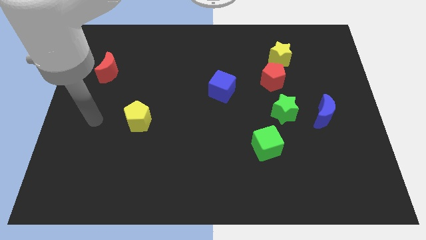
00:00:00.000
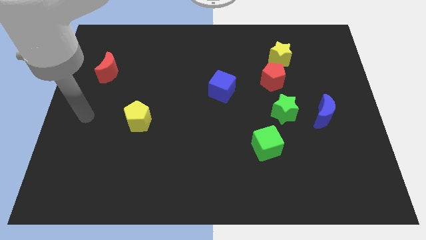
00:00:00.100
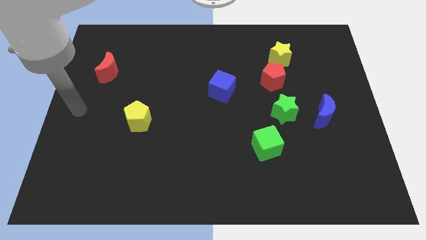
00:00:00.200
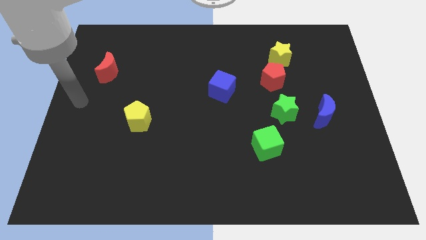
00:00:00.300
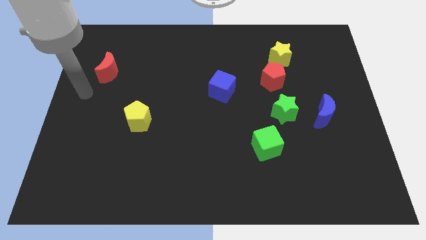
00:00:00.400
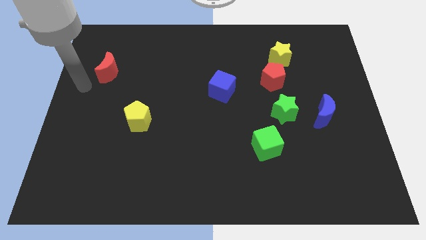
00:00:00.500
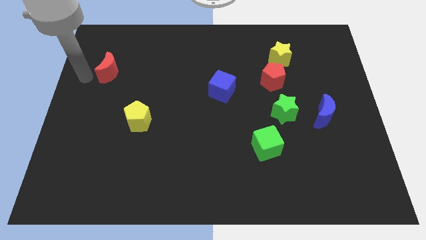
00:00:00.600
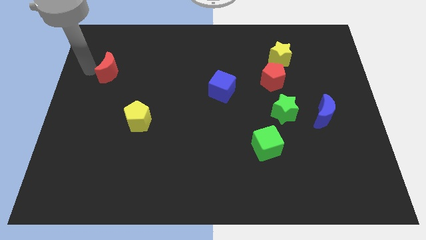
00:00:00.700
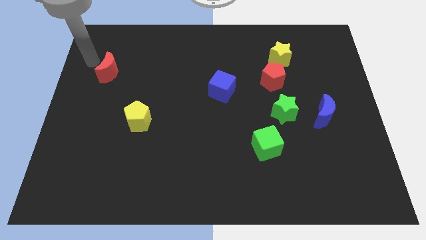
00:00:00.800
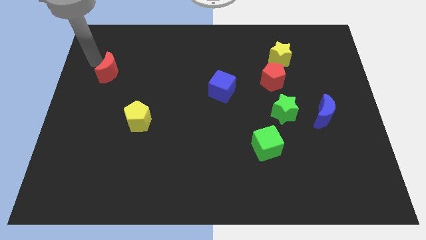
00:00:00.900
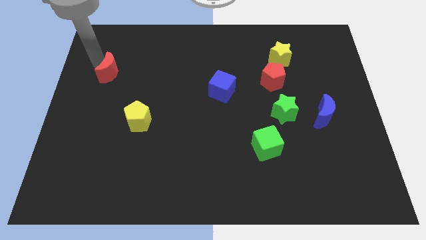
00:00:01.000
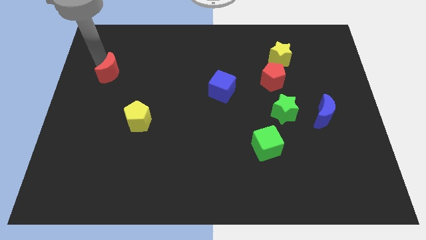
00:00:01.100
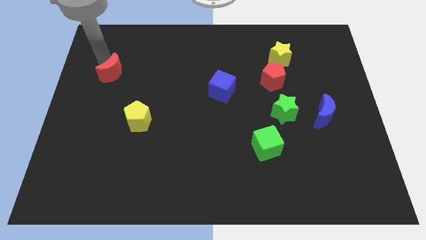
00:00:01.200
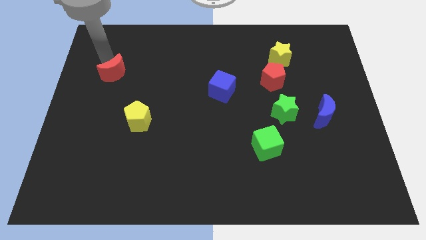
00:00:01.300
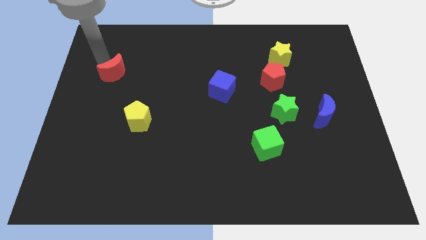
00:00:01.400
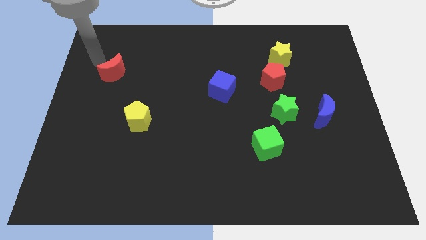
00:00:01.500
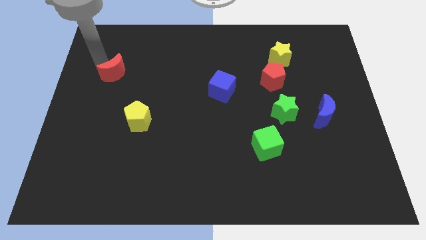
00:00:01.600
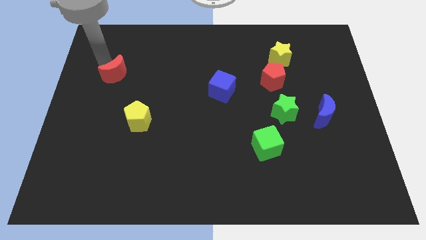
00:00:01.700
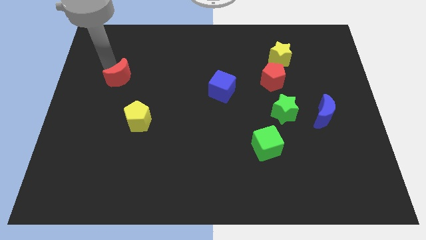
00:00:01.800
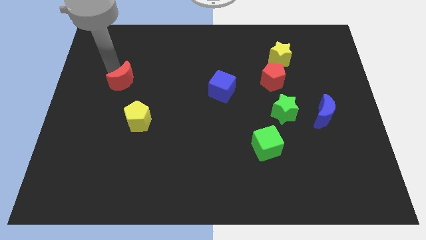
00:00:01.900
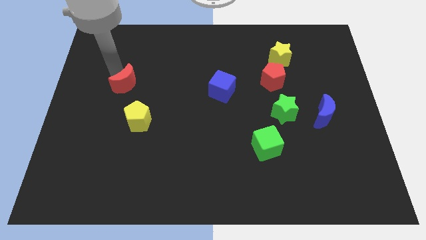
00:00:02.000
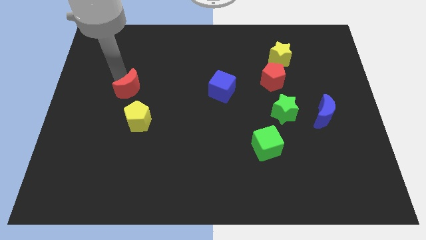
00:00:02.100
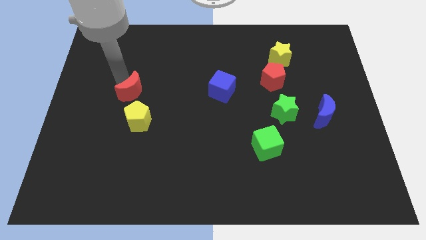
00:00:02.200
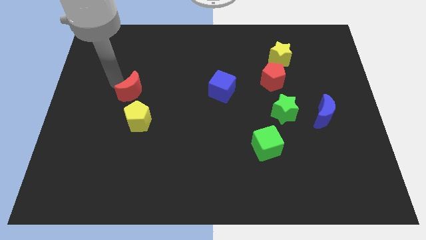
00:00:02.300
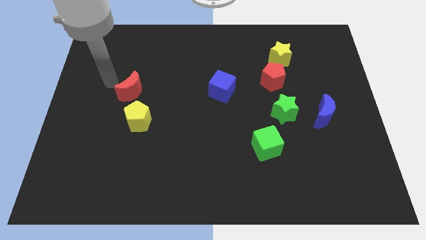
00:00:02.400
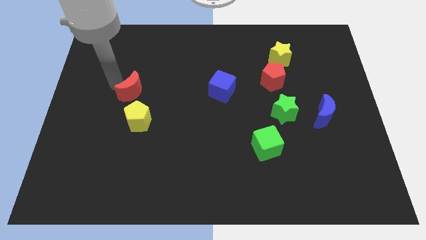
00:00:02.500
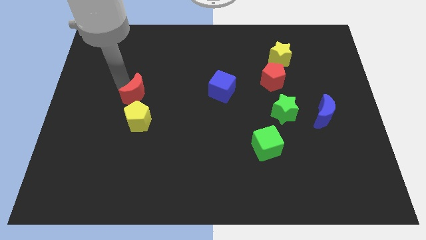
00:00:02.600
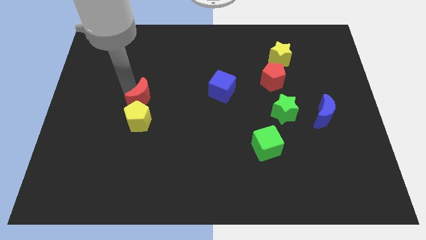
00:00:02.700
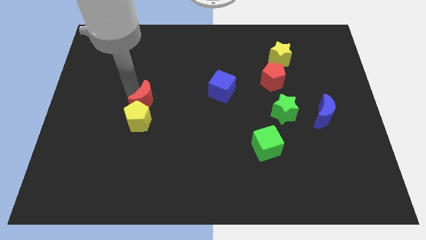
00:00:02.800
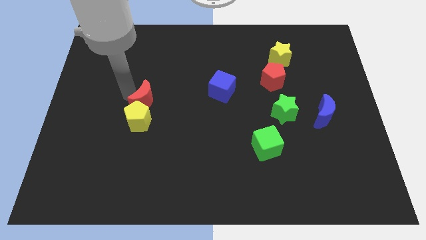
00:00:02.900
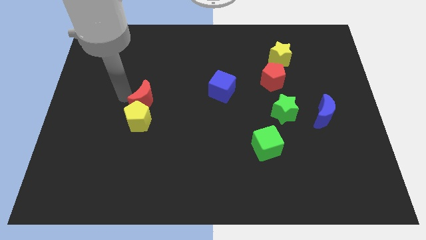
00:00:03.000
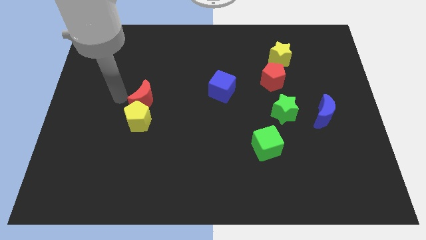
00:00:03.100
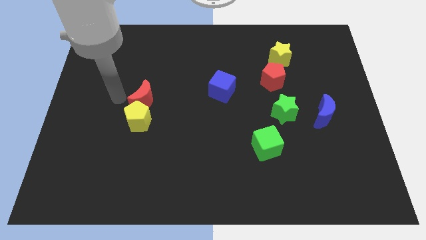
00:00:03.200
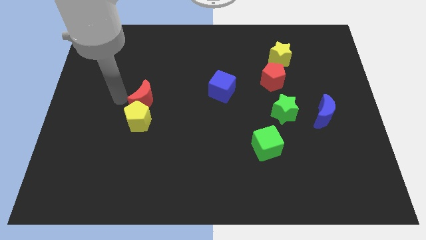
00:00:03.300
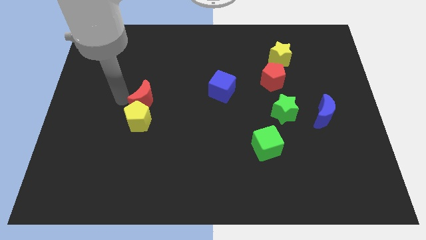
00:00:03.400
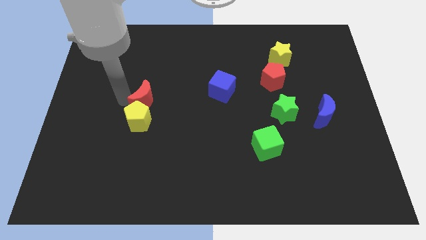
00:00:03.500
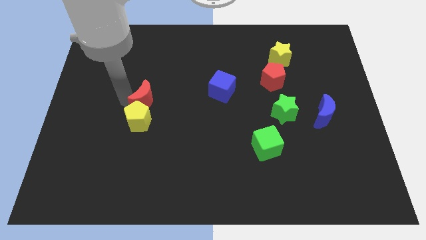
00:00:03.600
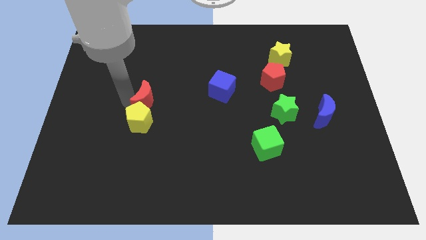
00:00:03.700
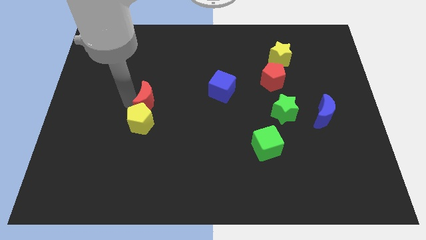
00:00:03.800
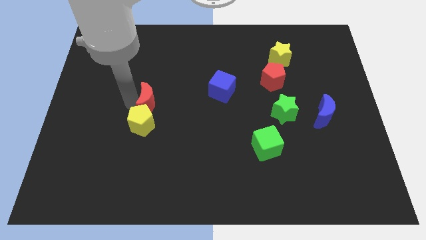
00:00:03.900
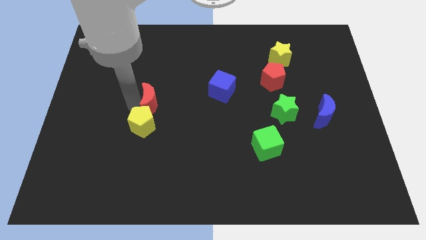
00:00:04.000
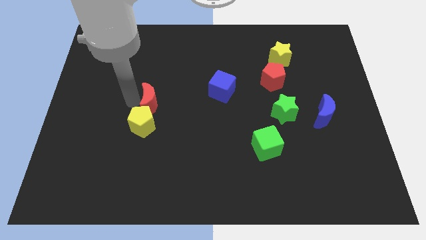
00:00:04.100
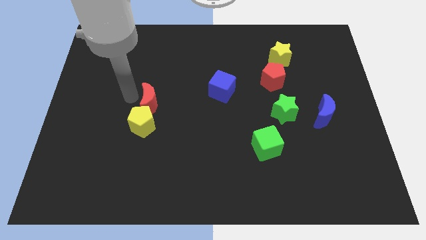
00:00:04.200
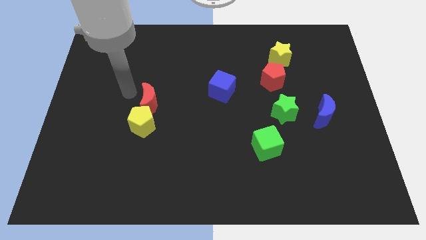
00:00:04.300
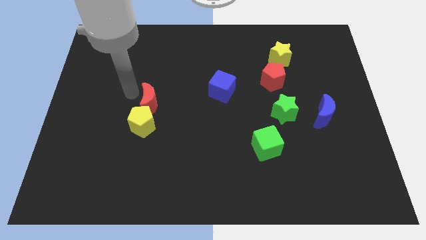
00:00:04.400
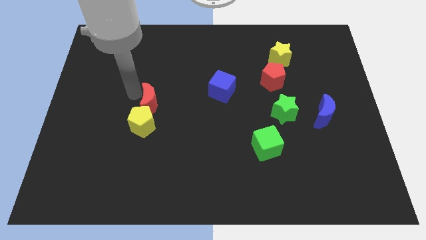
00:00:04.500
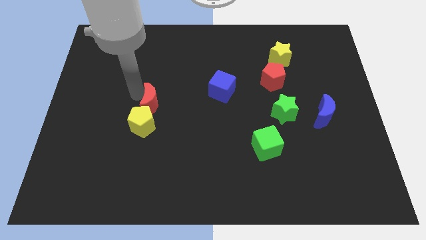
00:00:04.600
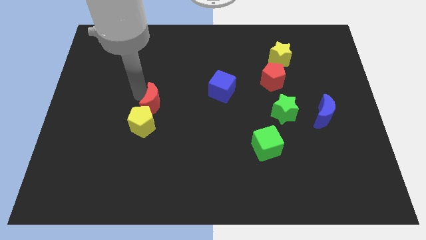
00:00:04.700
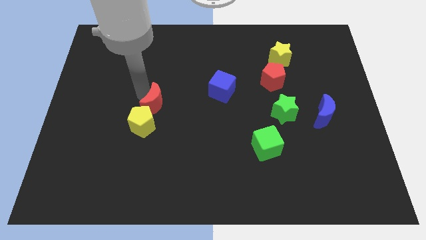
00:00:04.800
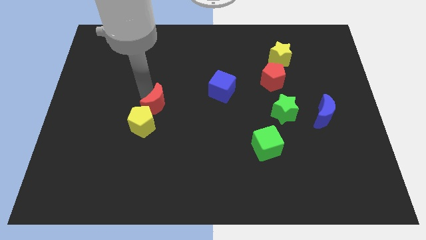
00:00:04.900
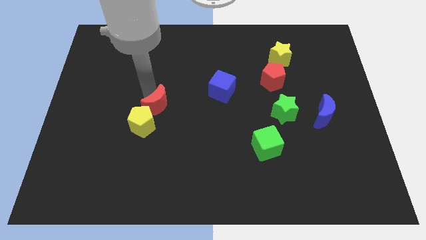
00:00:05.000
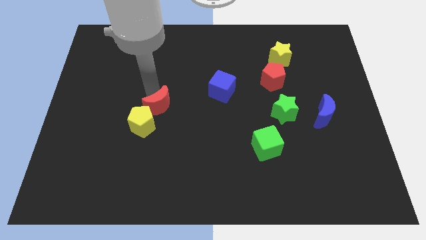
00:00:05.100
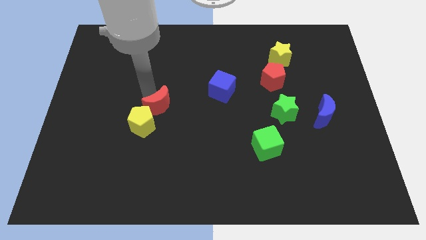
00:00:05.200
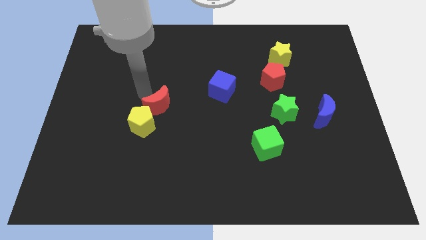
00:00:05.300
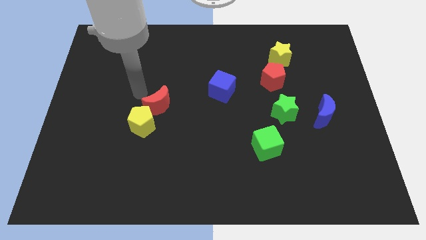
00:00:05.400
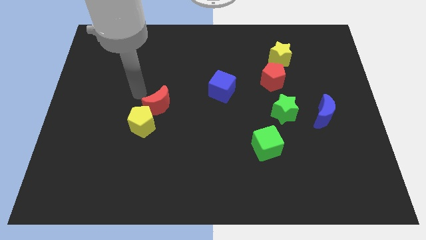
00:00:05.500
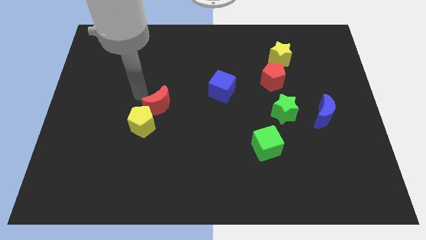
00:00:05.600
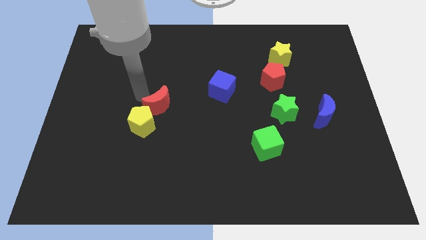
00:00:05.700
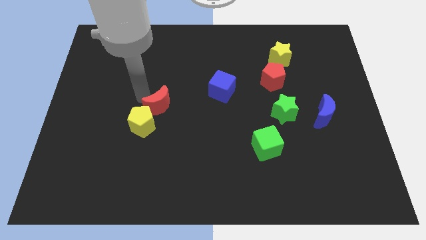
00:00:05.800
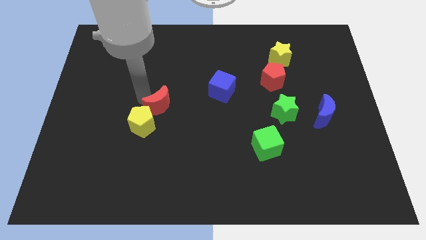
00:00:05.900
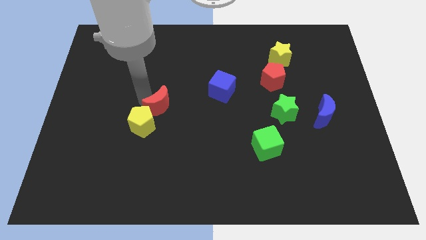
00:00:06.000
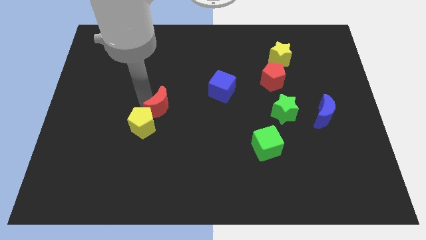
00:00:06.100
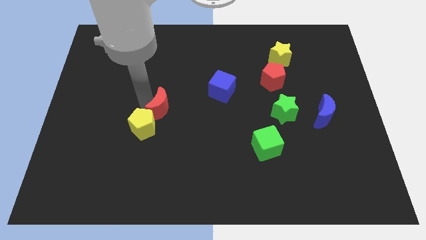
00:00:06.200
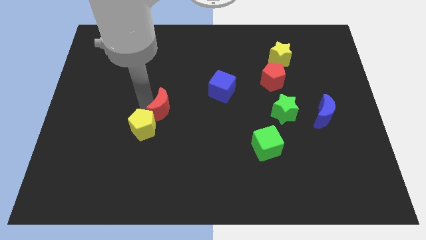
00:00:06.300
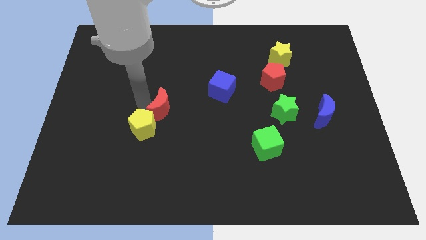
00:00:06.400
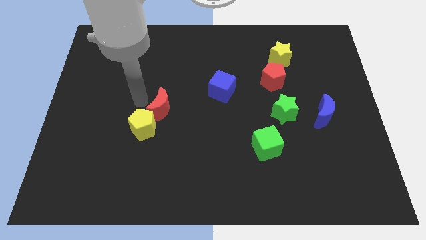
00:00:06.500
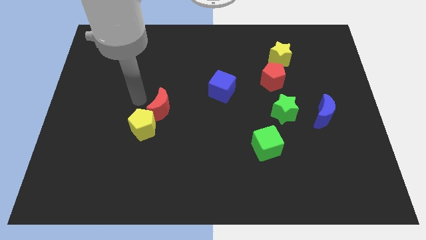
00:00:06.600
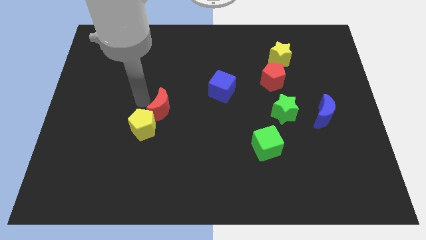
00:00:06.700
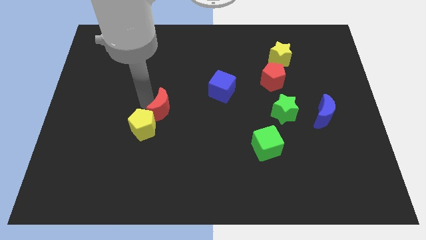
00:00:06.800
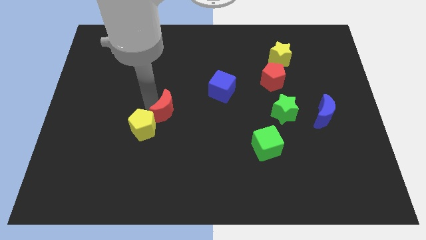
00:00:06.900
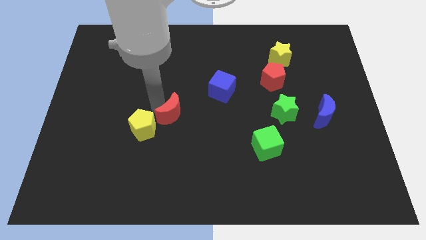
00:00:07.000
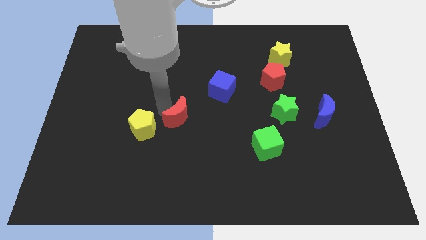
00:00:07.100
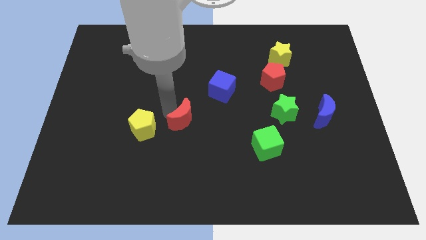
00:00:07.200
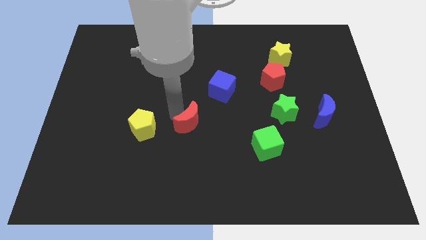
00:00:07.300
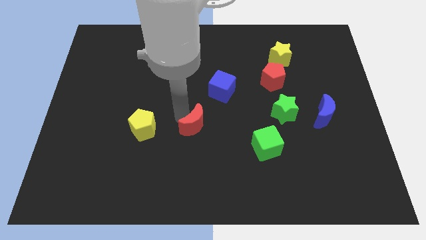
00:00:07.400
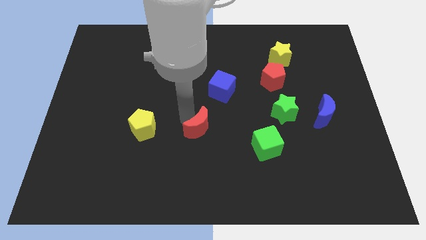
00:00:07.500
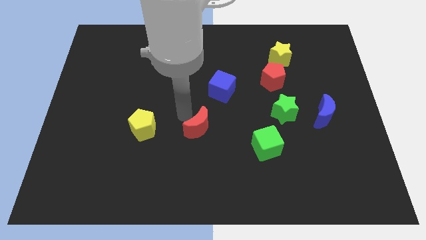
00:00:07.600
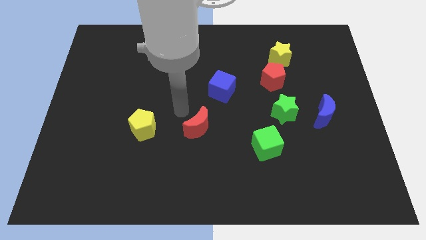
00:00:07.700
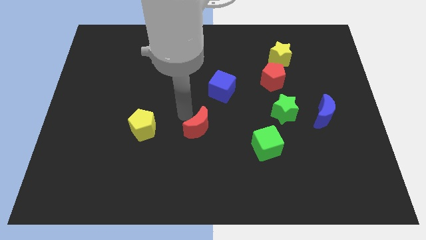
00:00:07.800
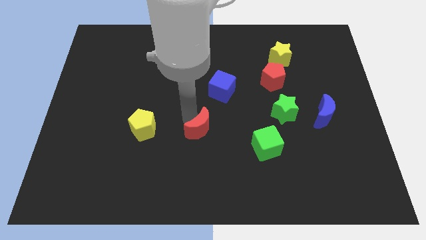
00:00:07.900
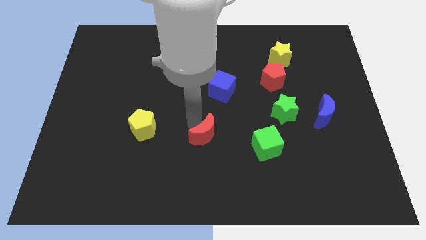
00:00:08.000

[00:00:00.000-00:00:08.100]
slide the red moon left of the green cube
